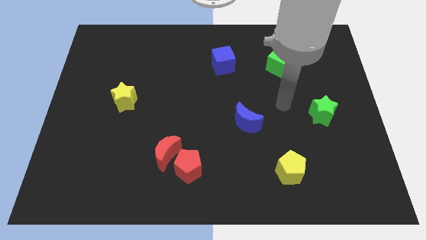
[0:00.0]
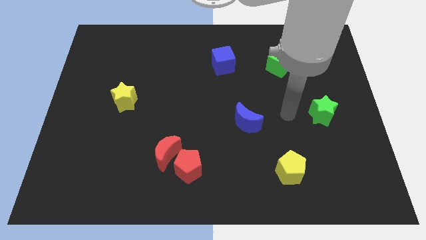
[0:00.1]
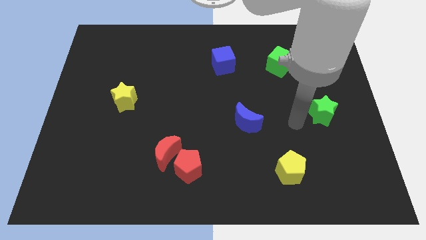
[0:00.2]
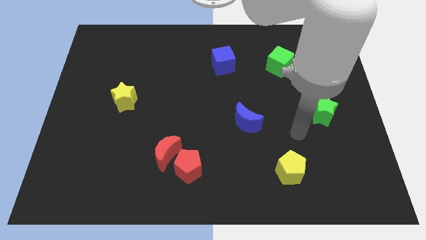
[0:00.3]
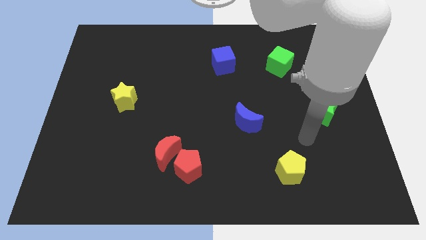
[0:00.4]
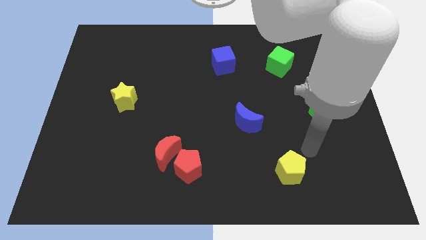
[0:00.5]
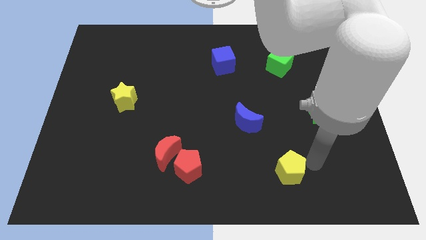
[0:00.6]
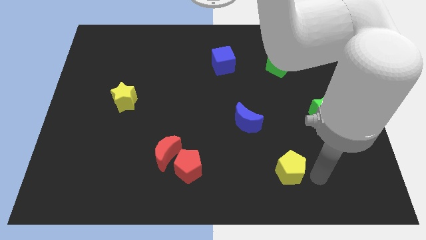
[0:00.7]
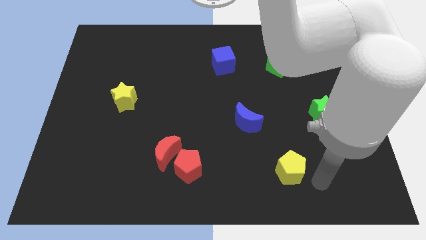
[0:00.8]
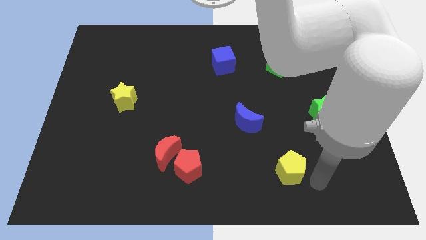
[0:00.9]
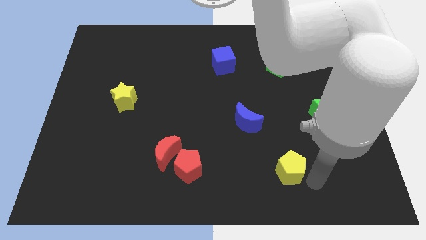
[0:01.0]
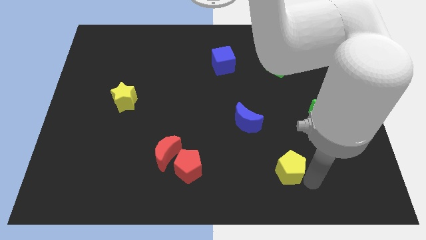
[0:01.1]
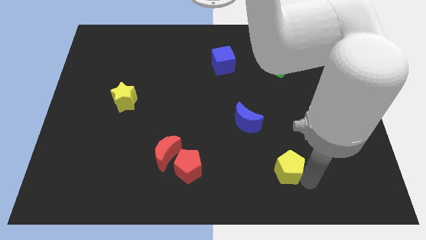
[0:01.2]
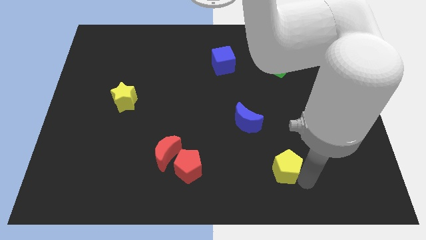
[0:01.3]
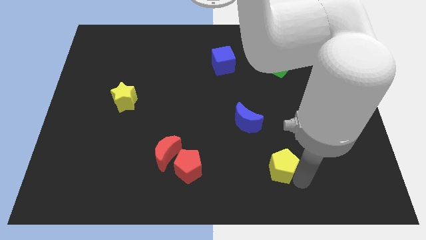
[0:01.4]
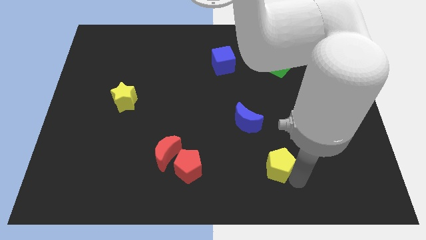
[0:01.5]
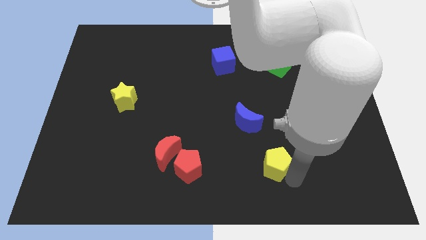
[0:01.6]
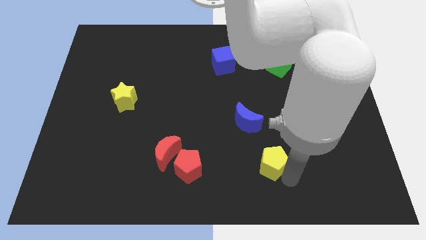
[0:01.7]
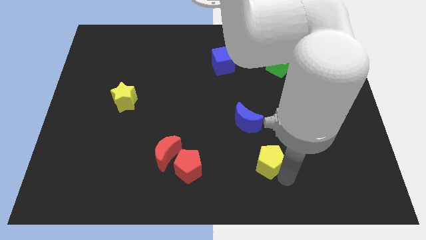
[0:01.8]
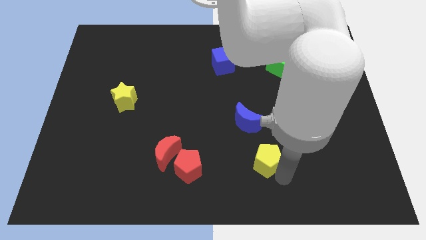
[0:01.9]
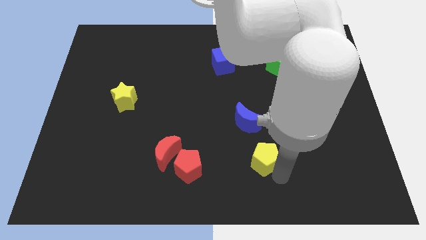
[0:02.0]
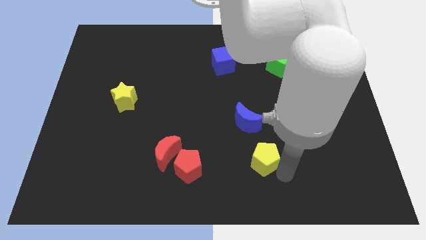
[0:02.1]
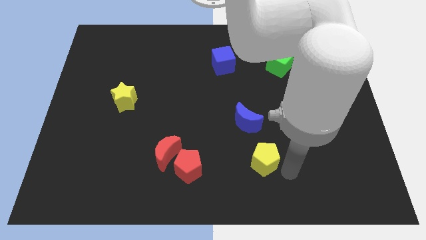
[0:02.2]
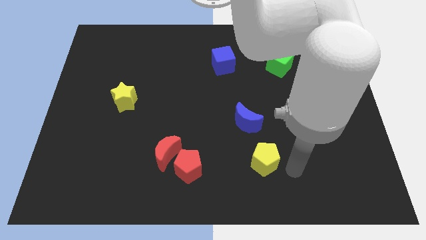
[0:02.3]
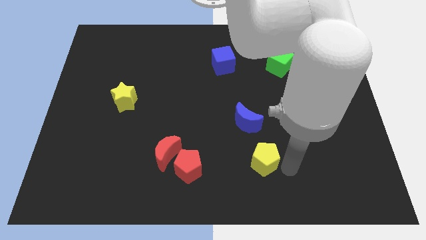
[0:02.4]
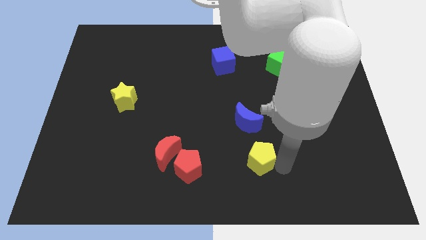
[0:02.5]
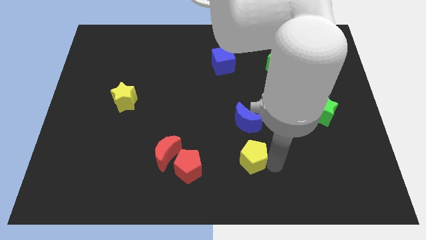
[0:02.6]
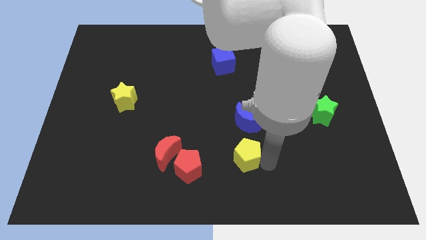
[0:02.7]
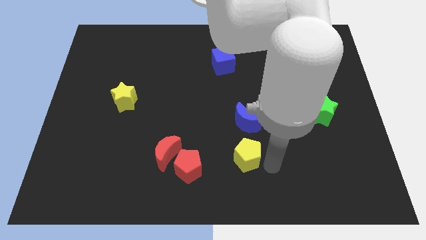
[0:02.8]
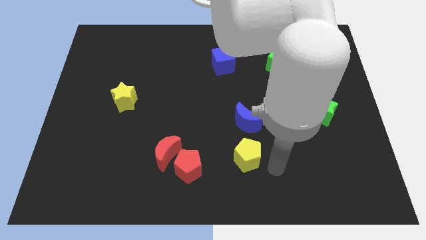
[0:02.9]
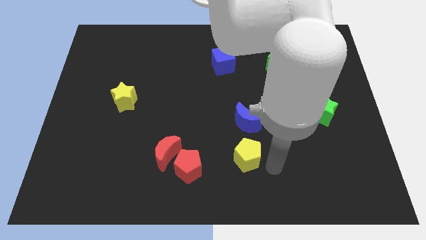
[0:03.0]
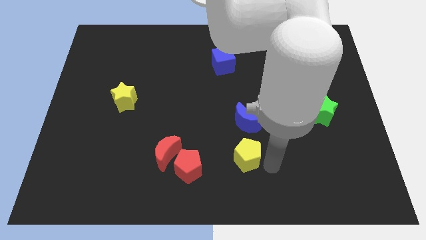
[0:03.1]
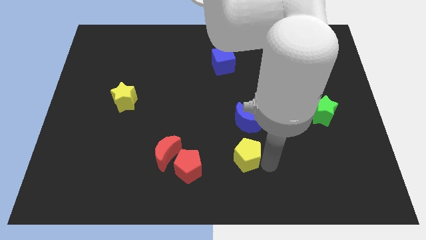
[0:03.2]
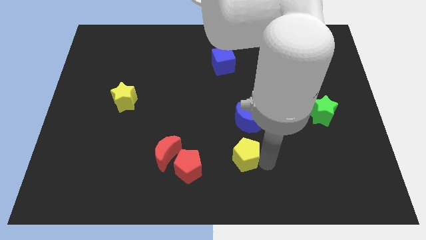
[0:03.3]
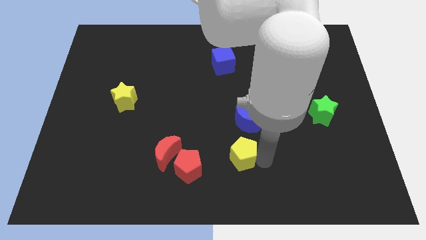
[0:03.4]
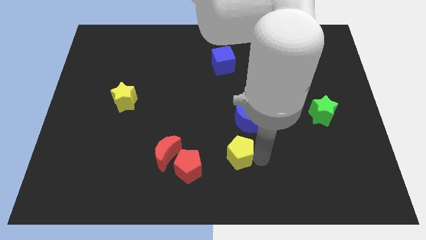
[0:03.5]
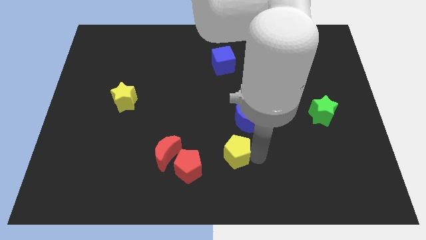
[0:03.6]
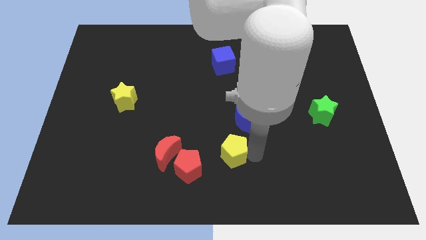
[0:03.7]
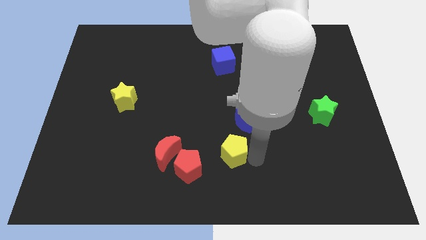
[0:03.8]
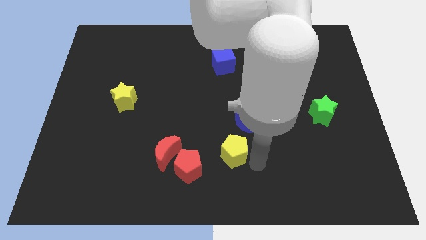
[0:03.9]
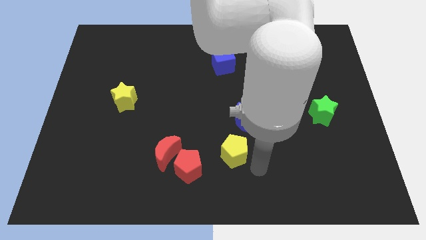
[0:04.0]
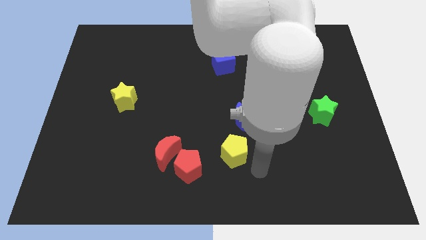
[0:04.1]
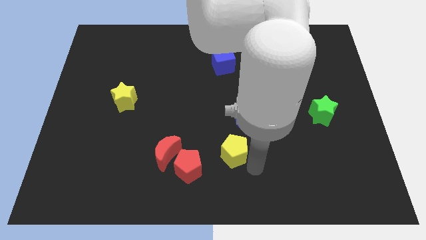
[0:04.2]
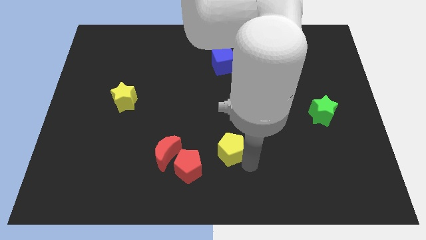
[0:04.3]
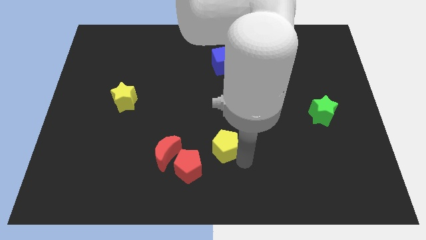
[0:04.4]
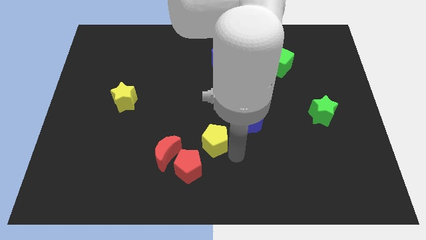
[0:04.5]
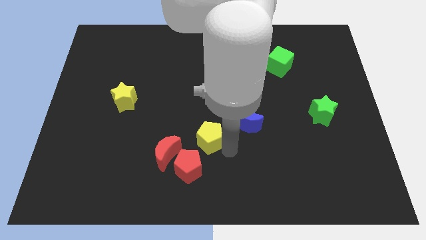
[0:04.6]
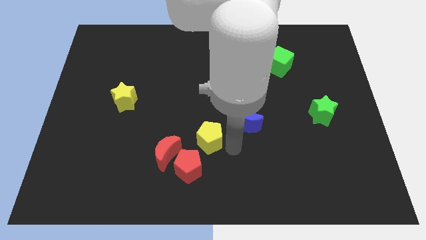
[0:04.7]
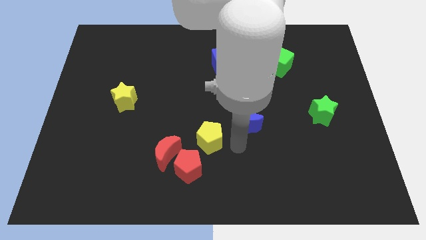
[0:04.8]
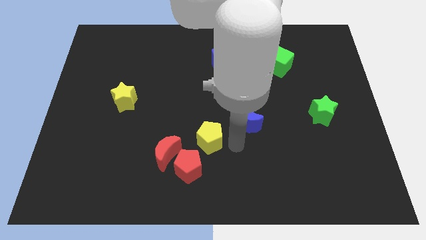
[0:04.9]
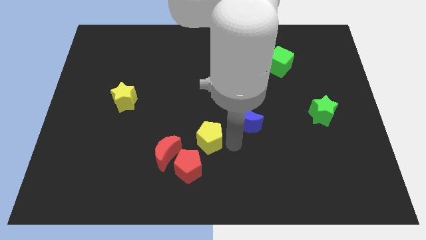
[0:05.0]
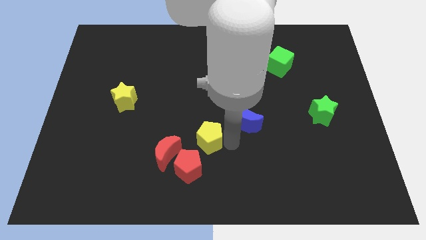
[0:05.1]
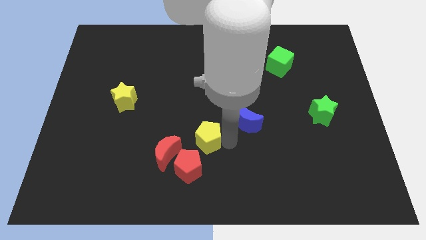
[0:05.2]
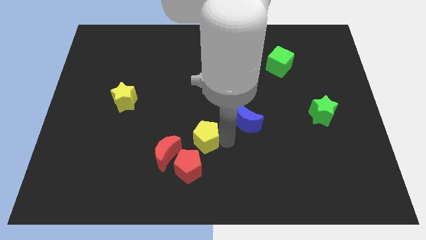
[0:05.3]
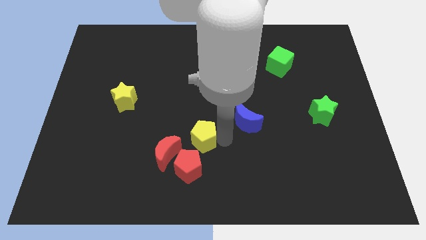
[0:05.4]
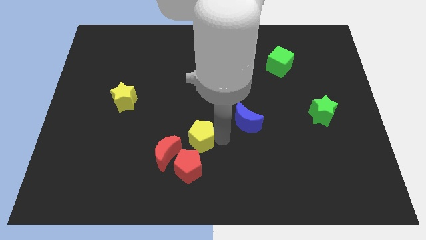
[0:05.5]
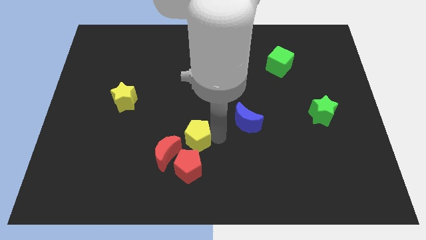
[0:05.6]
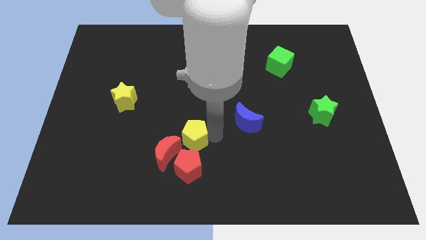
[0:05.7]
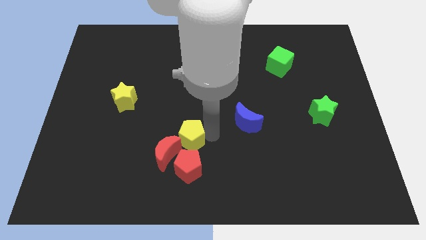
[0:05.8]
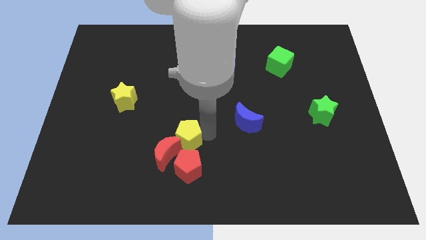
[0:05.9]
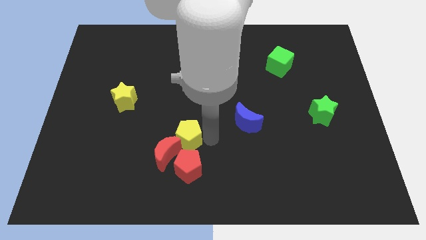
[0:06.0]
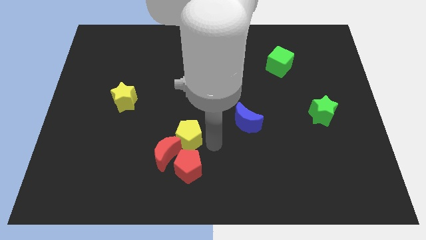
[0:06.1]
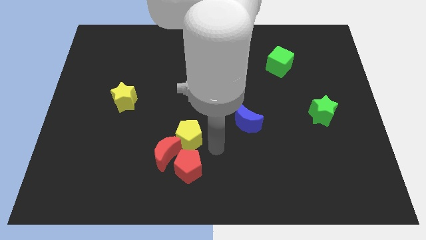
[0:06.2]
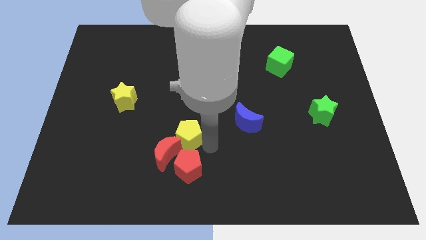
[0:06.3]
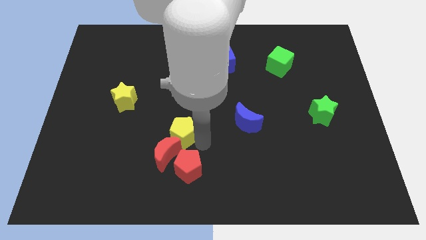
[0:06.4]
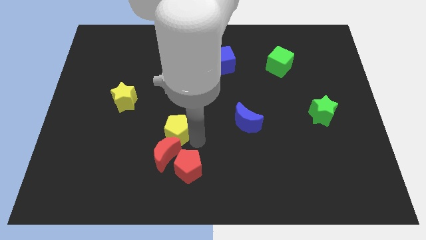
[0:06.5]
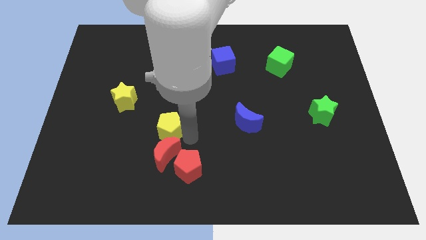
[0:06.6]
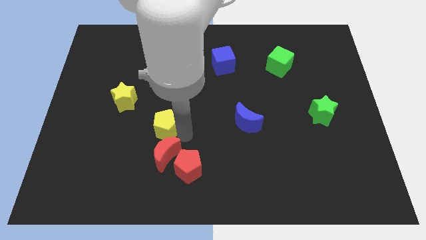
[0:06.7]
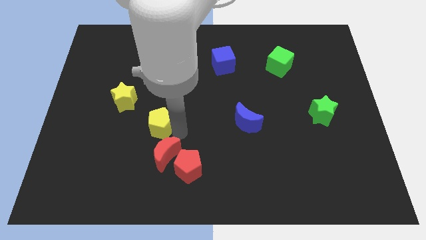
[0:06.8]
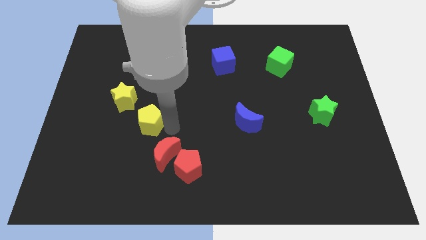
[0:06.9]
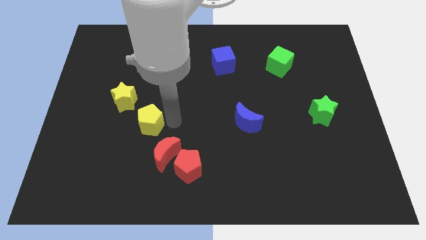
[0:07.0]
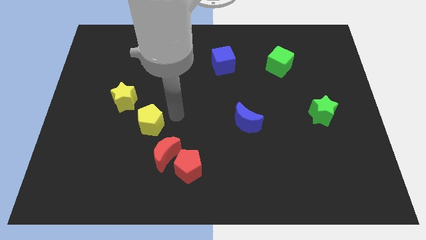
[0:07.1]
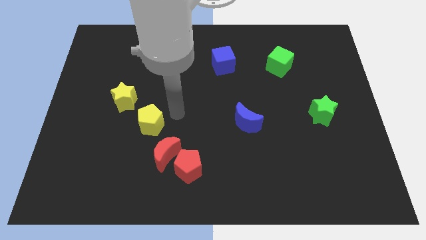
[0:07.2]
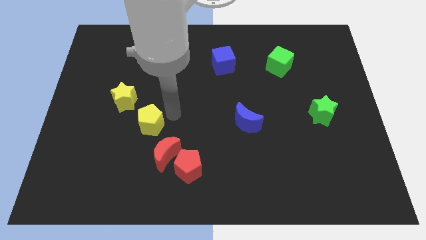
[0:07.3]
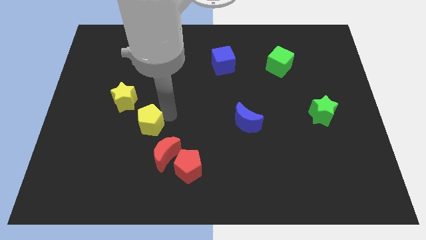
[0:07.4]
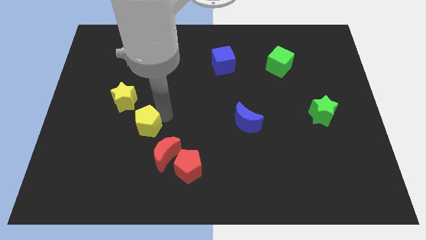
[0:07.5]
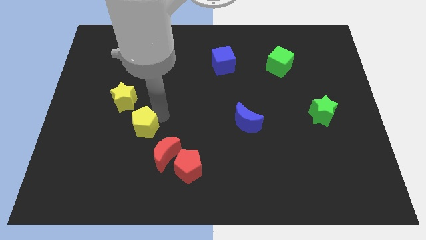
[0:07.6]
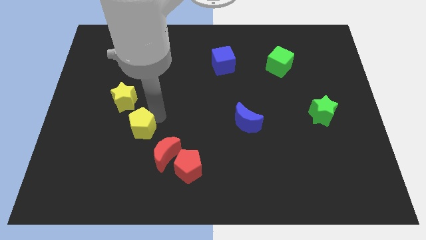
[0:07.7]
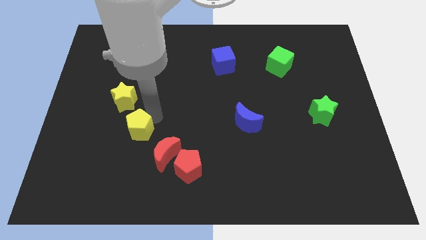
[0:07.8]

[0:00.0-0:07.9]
move the yellow pentagon to the bottom of the yellow star
